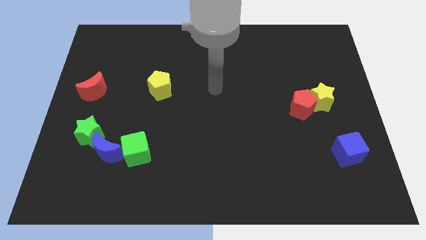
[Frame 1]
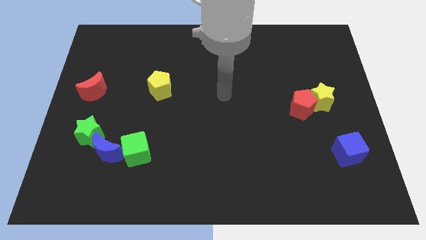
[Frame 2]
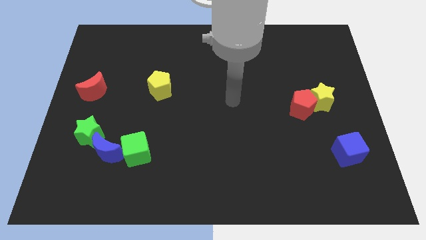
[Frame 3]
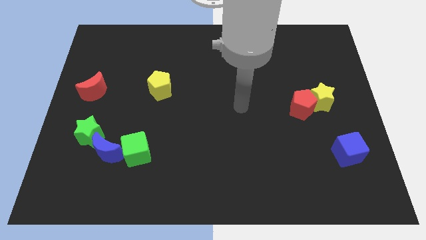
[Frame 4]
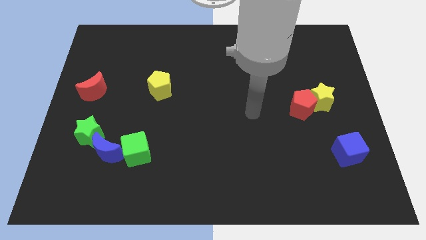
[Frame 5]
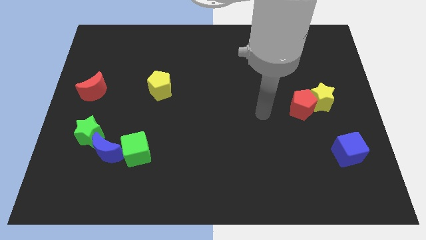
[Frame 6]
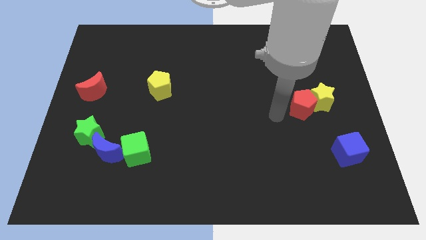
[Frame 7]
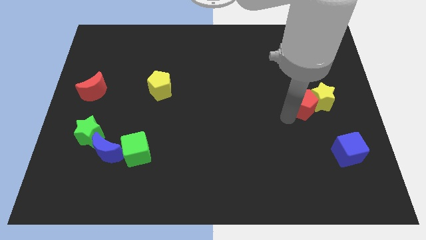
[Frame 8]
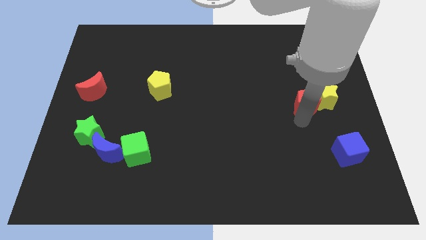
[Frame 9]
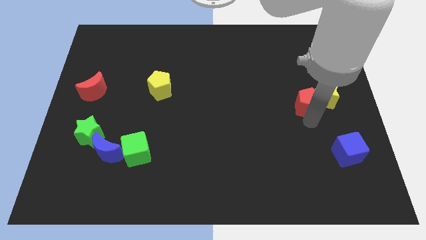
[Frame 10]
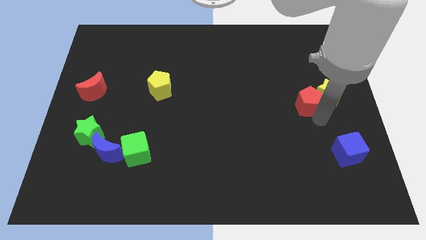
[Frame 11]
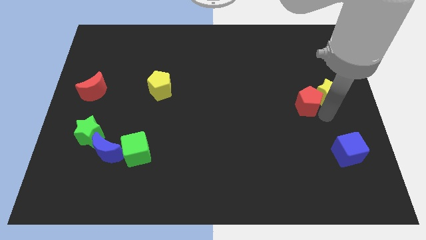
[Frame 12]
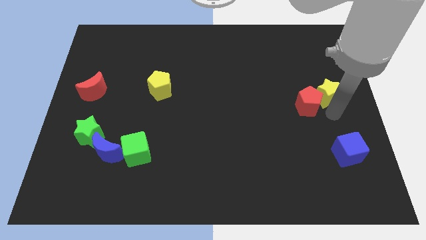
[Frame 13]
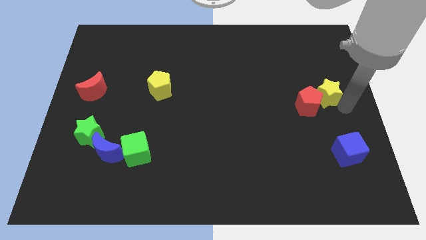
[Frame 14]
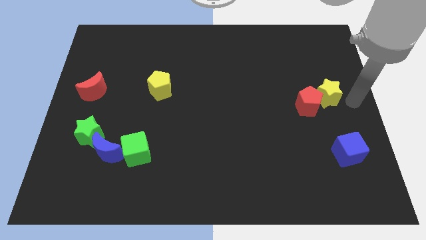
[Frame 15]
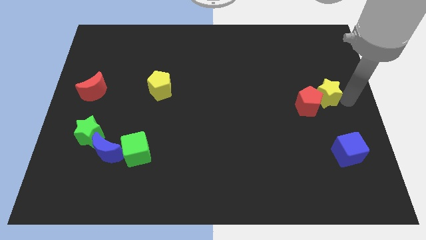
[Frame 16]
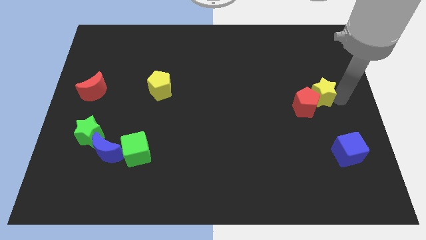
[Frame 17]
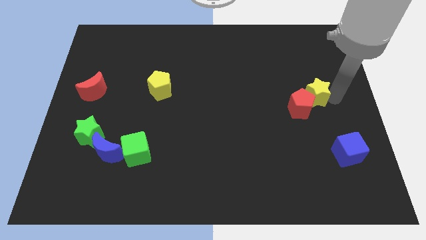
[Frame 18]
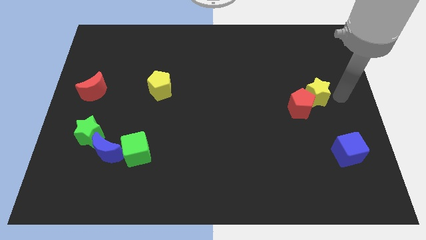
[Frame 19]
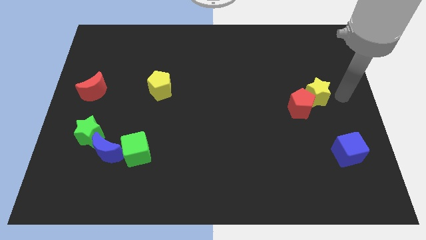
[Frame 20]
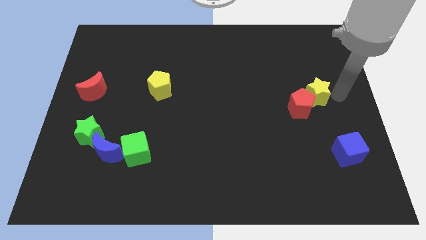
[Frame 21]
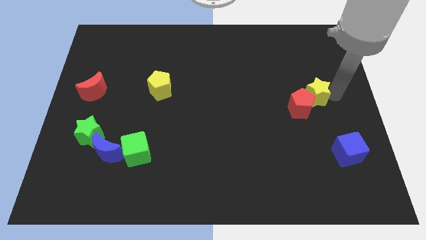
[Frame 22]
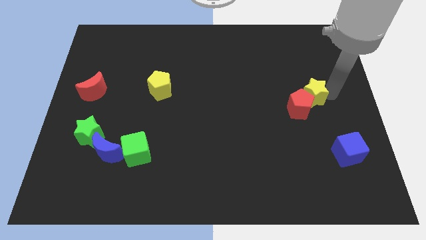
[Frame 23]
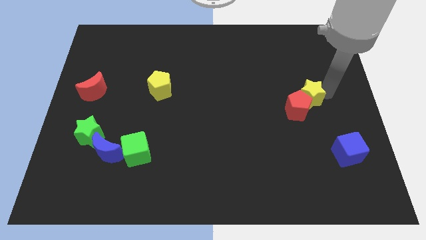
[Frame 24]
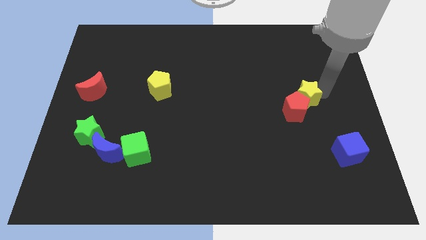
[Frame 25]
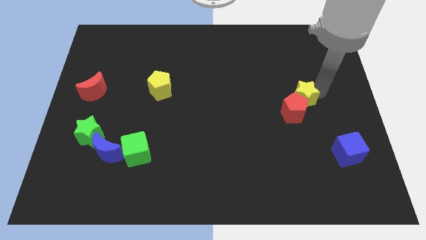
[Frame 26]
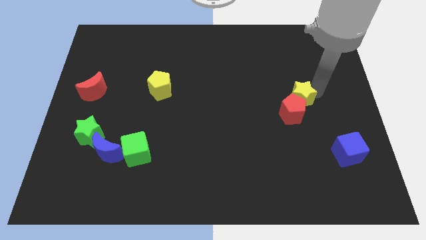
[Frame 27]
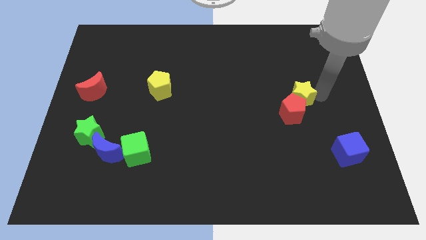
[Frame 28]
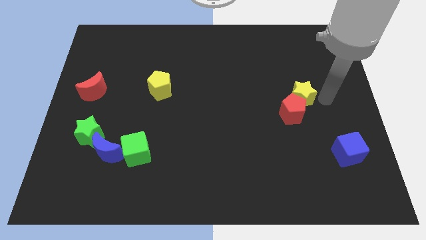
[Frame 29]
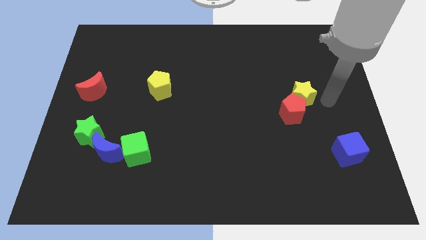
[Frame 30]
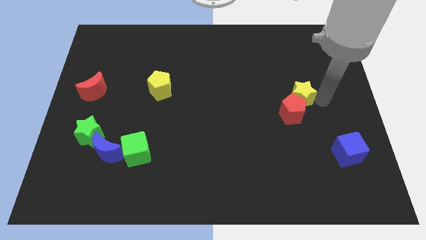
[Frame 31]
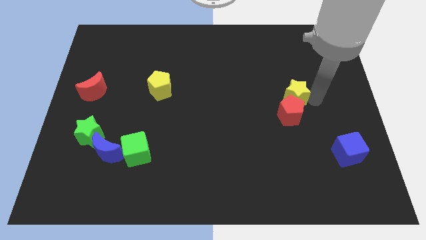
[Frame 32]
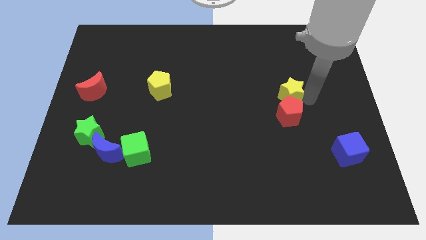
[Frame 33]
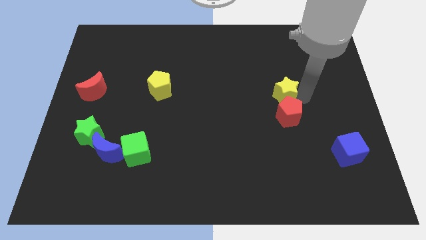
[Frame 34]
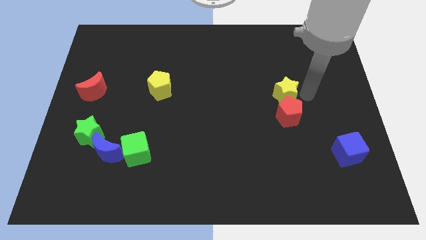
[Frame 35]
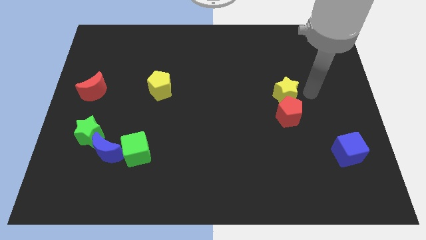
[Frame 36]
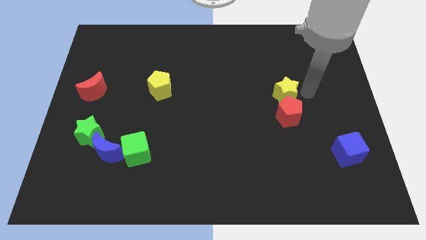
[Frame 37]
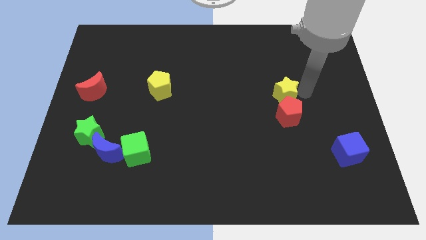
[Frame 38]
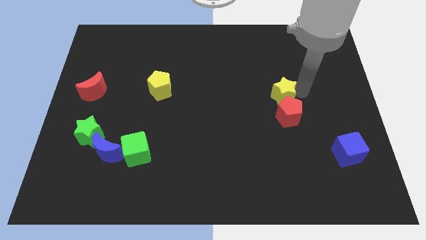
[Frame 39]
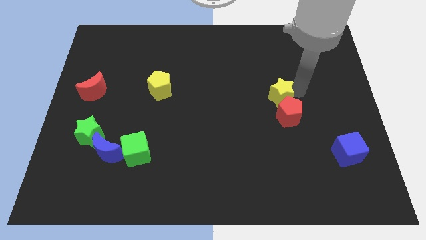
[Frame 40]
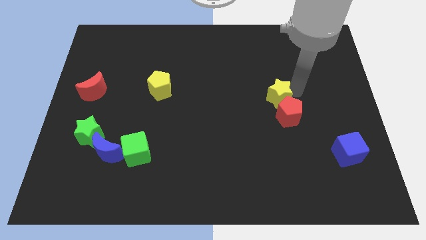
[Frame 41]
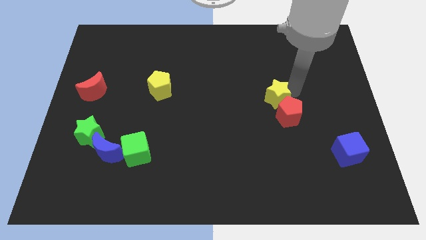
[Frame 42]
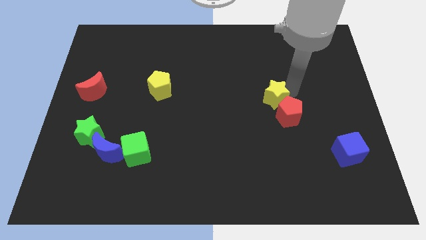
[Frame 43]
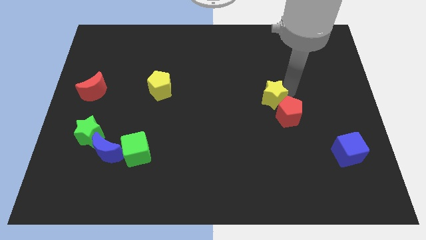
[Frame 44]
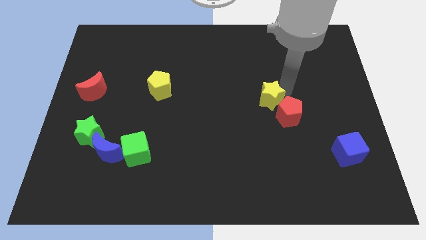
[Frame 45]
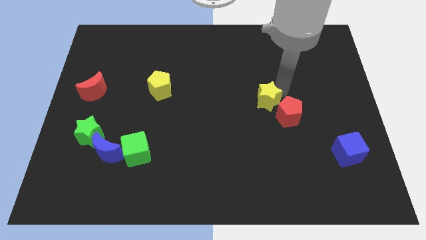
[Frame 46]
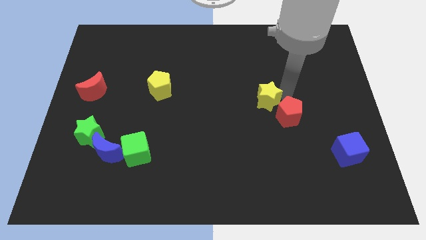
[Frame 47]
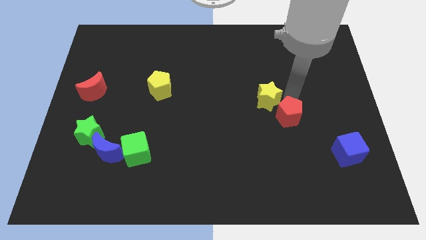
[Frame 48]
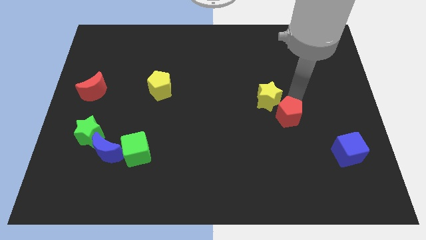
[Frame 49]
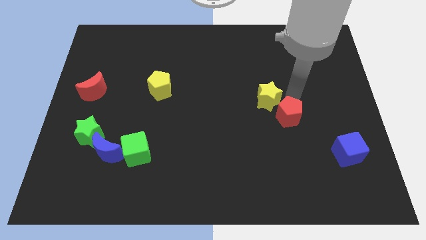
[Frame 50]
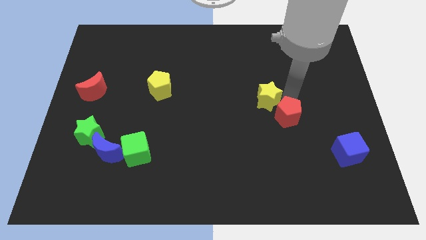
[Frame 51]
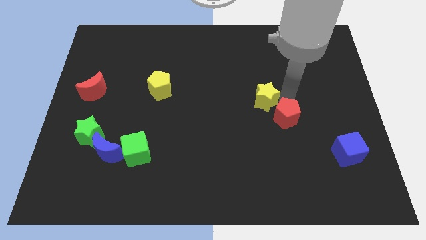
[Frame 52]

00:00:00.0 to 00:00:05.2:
slide the yellow star to the center
